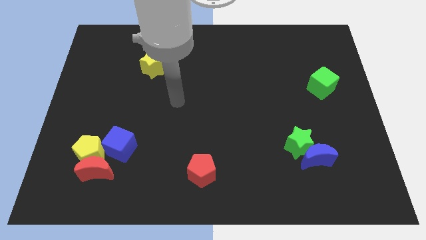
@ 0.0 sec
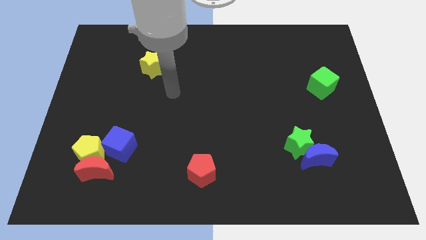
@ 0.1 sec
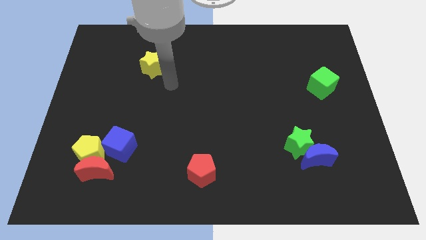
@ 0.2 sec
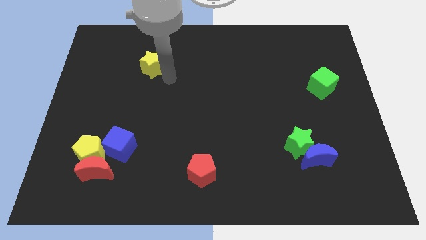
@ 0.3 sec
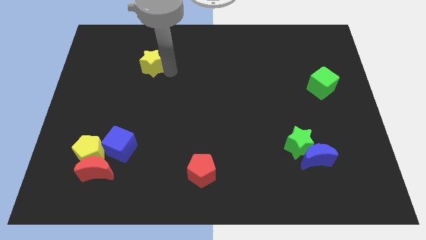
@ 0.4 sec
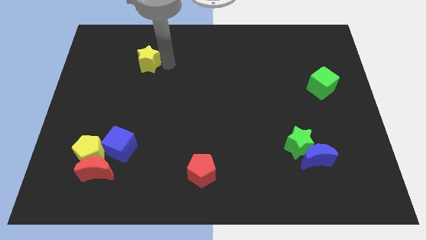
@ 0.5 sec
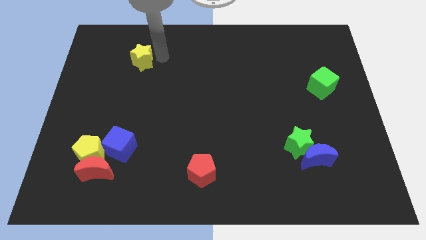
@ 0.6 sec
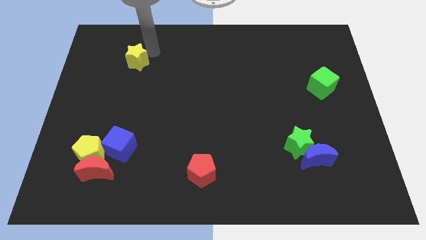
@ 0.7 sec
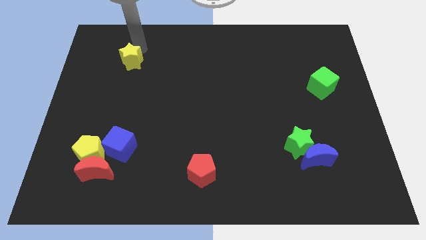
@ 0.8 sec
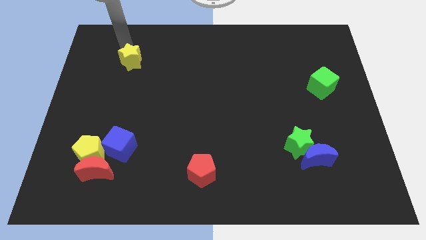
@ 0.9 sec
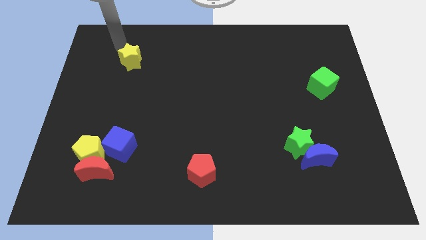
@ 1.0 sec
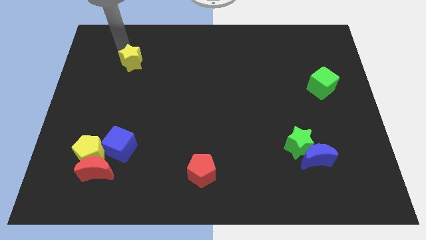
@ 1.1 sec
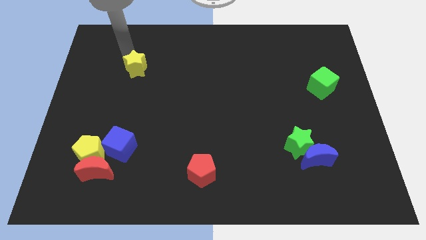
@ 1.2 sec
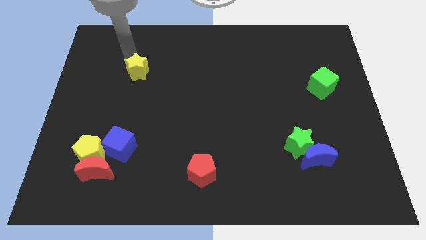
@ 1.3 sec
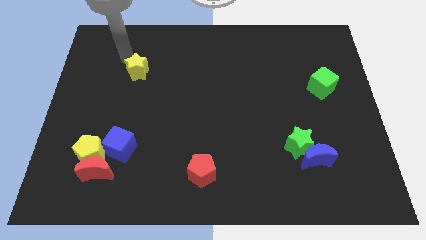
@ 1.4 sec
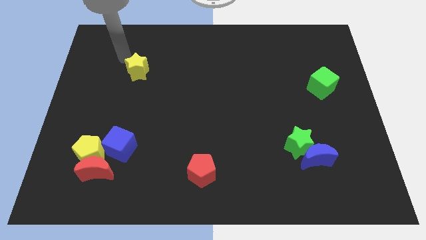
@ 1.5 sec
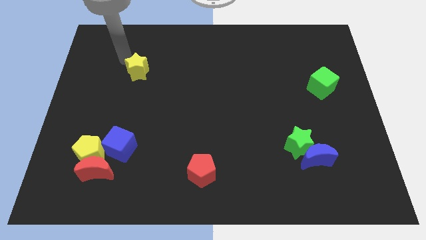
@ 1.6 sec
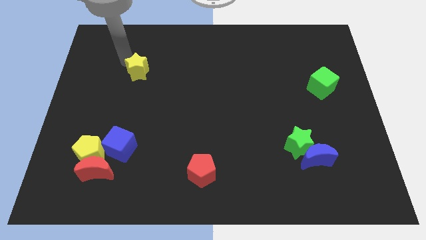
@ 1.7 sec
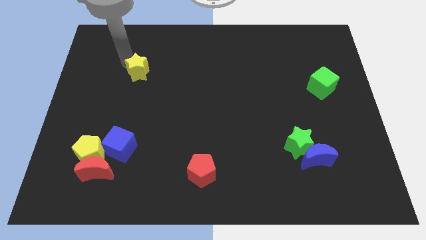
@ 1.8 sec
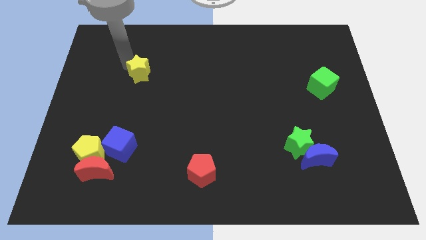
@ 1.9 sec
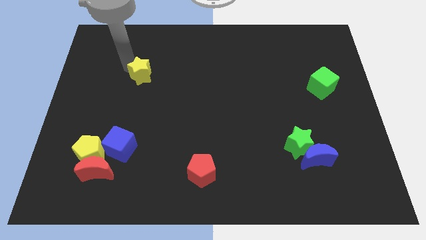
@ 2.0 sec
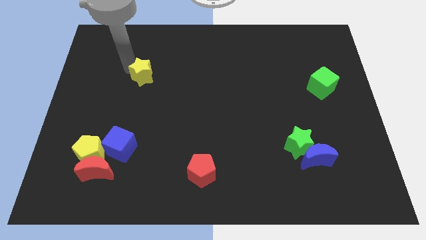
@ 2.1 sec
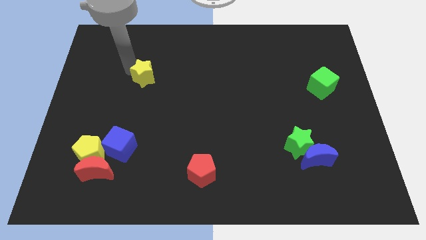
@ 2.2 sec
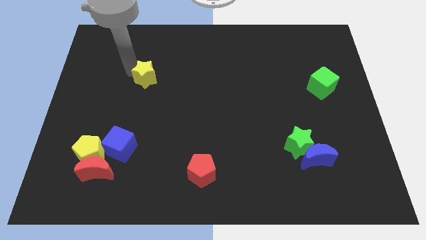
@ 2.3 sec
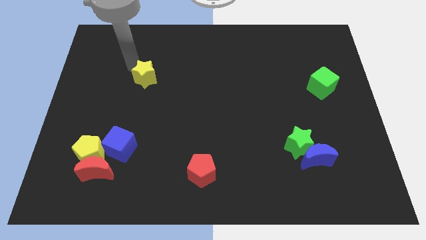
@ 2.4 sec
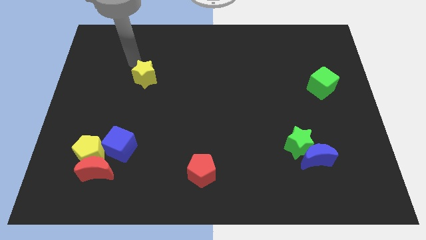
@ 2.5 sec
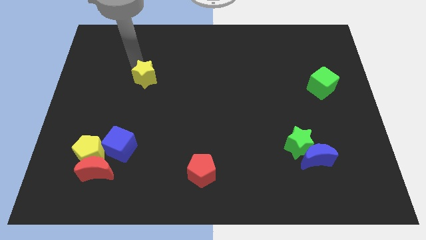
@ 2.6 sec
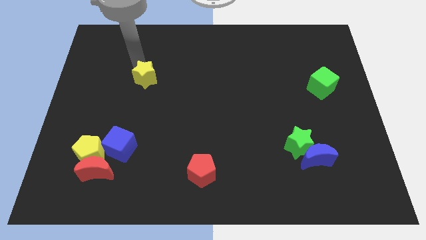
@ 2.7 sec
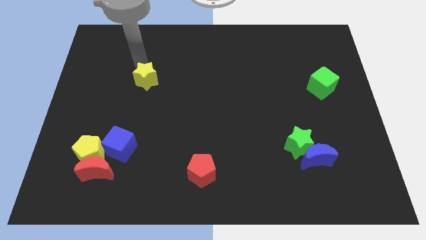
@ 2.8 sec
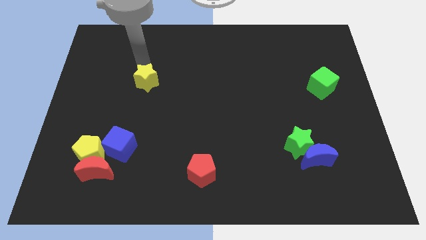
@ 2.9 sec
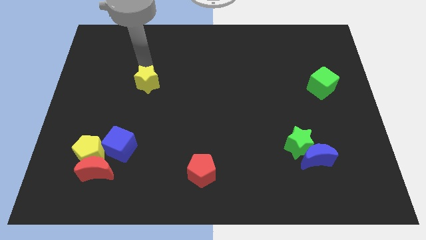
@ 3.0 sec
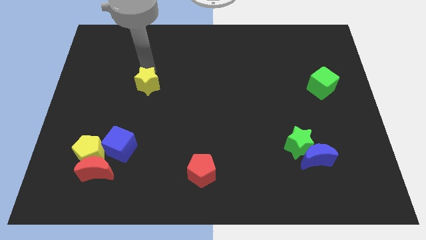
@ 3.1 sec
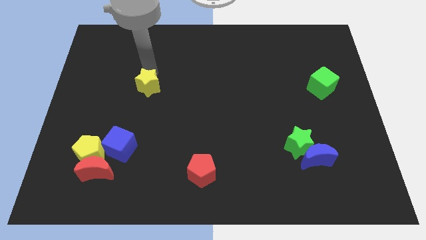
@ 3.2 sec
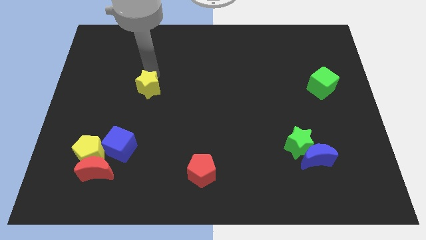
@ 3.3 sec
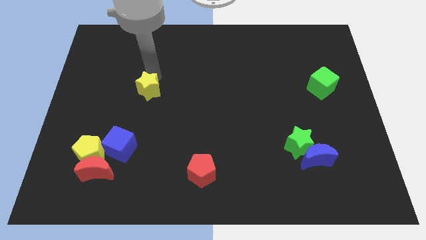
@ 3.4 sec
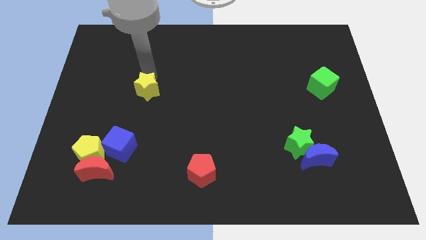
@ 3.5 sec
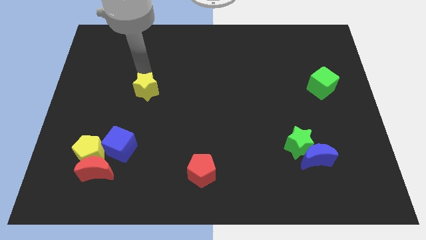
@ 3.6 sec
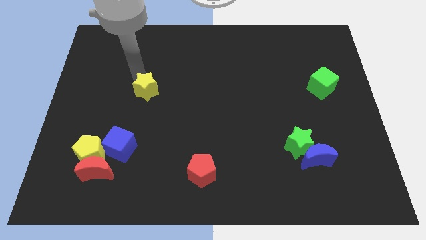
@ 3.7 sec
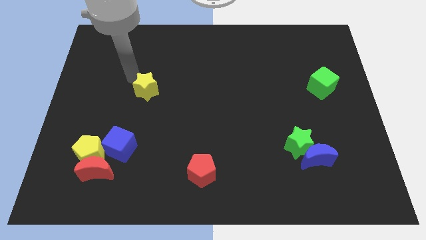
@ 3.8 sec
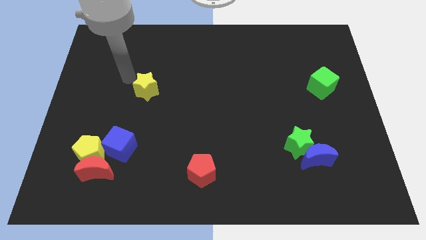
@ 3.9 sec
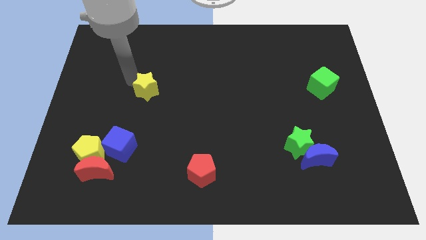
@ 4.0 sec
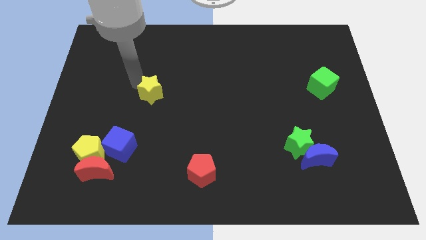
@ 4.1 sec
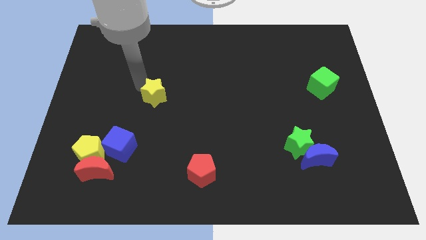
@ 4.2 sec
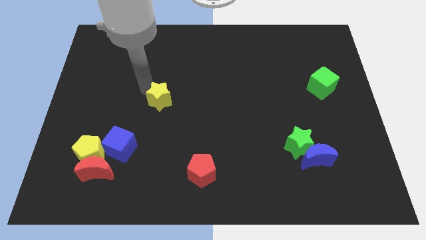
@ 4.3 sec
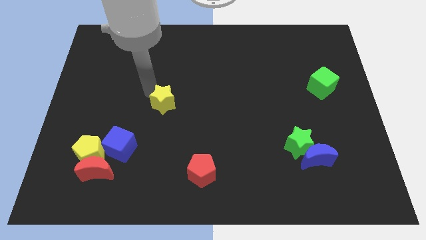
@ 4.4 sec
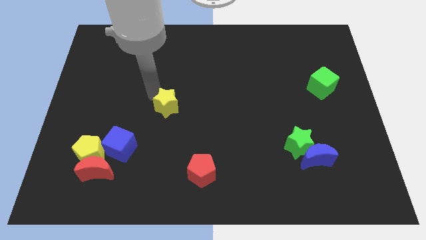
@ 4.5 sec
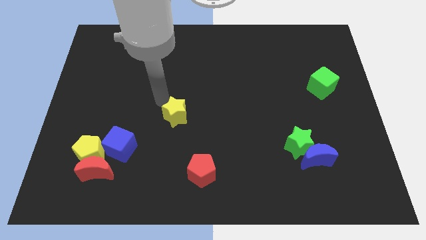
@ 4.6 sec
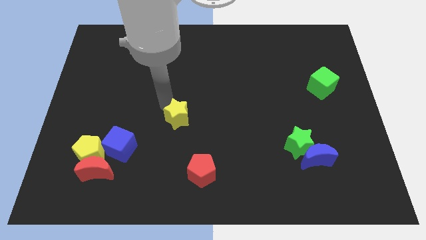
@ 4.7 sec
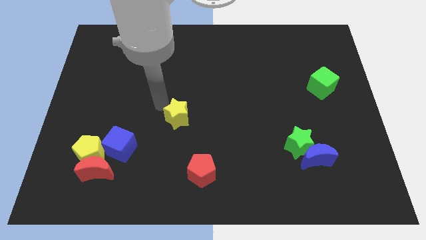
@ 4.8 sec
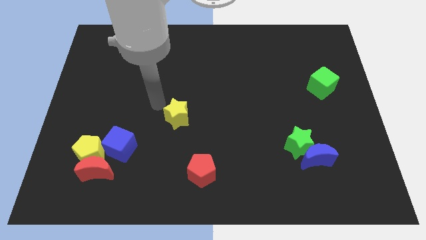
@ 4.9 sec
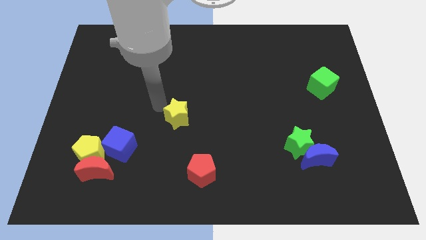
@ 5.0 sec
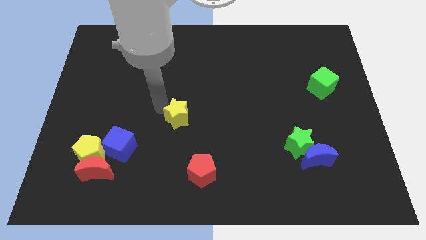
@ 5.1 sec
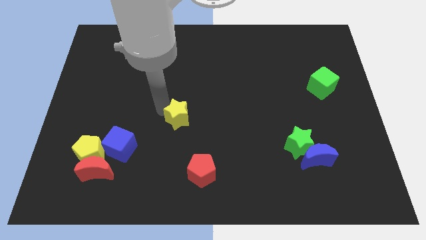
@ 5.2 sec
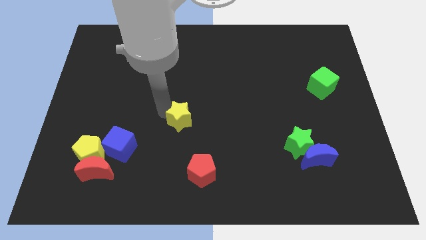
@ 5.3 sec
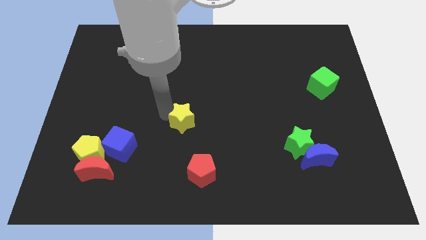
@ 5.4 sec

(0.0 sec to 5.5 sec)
slide the yellow star above the red pentagon
